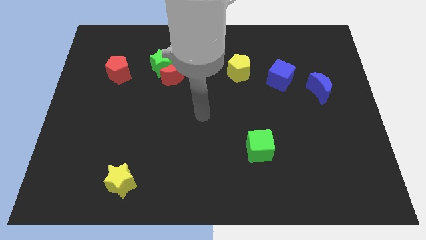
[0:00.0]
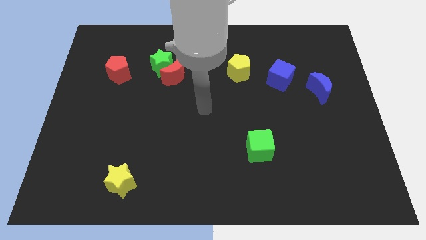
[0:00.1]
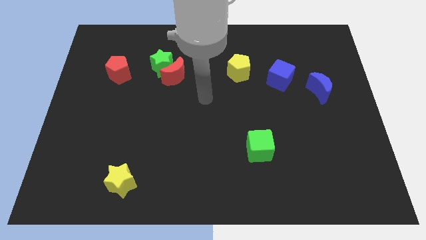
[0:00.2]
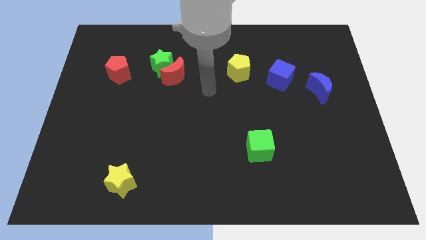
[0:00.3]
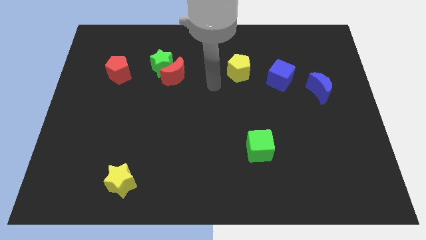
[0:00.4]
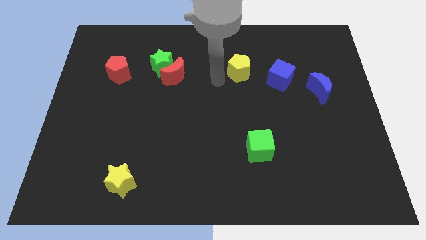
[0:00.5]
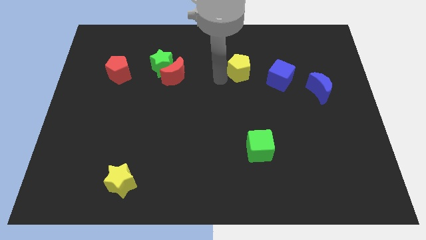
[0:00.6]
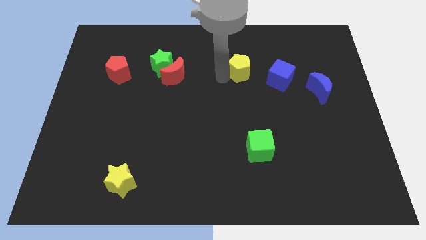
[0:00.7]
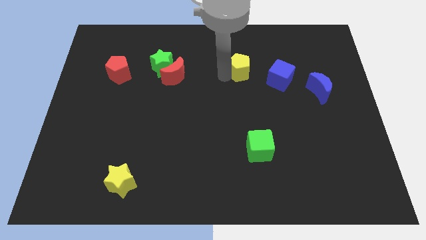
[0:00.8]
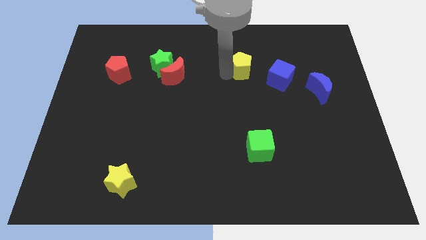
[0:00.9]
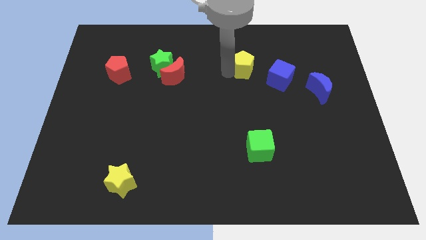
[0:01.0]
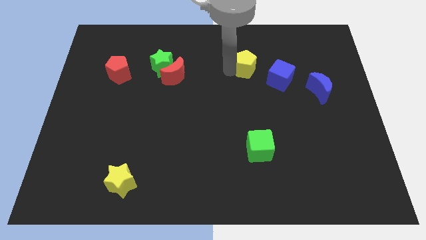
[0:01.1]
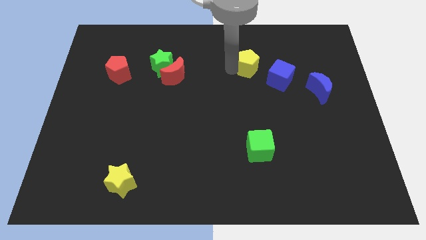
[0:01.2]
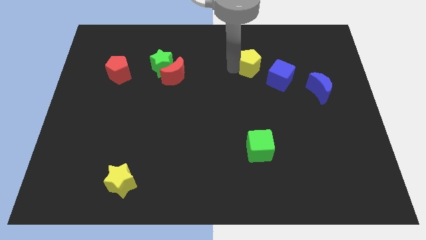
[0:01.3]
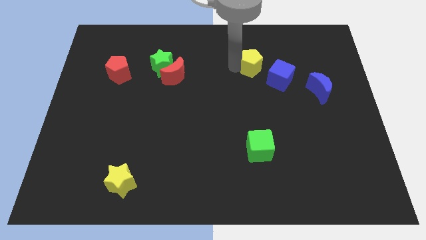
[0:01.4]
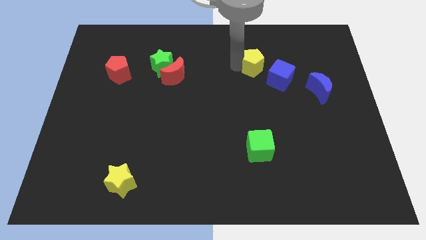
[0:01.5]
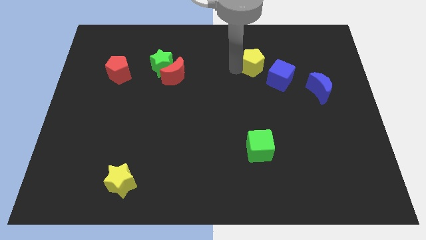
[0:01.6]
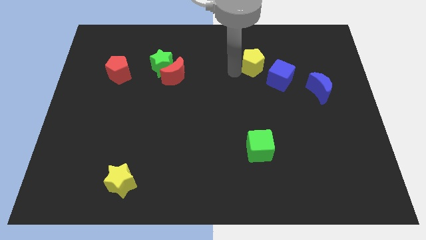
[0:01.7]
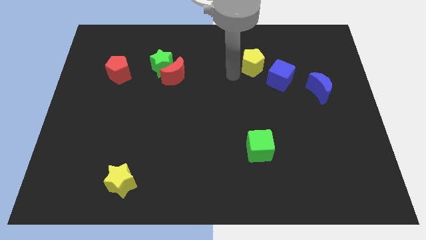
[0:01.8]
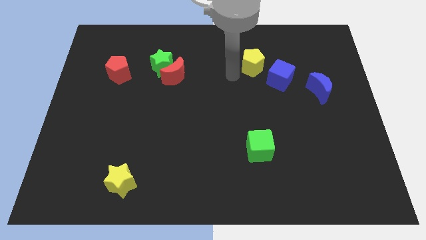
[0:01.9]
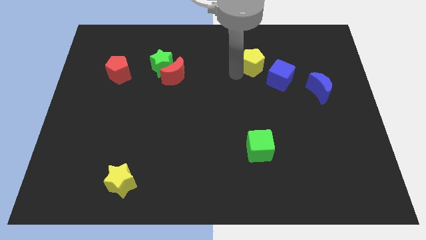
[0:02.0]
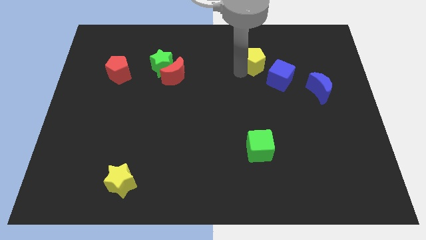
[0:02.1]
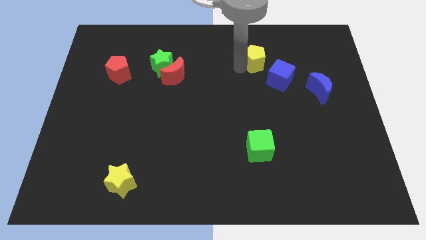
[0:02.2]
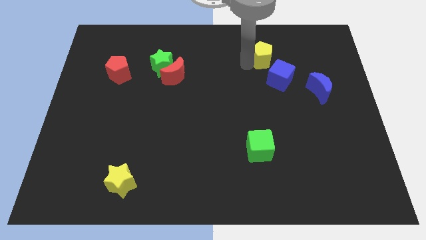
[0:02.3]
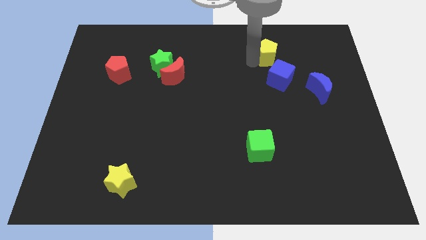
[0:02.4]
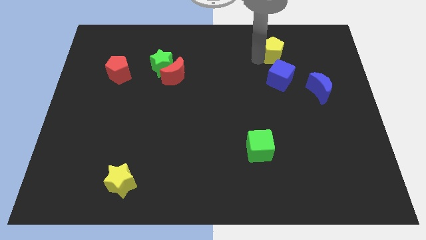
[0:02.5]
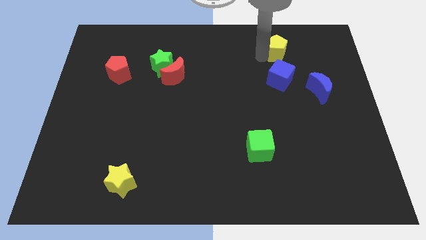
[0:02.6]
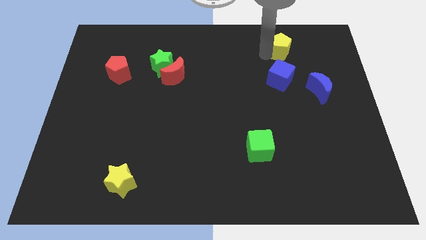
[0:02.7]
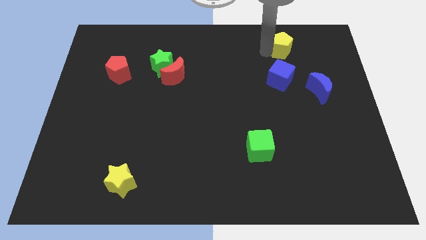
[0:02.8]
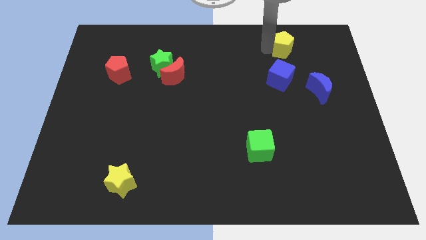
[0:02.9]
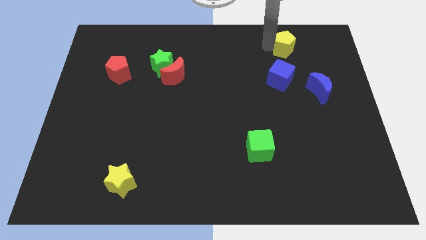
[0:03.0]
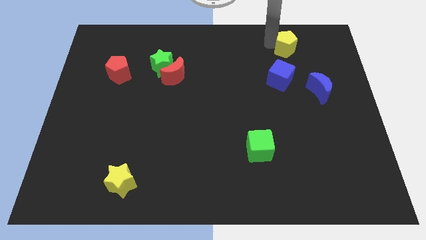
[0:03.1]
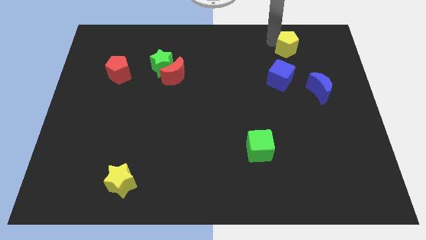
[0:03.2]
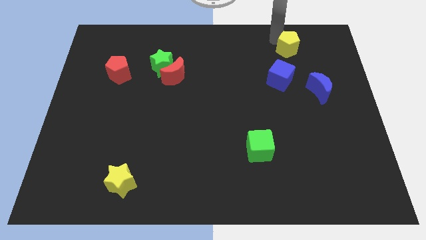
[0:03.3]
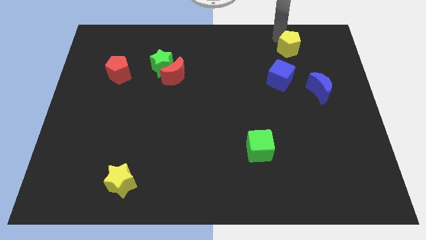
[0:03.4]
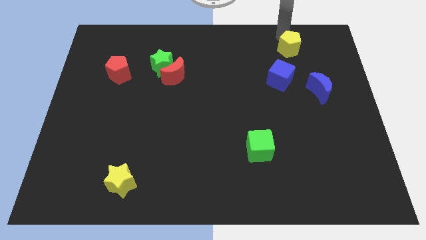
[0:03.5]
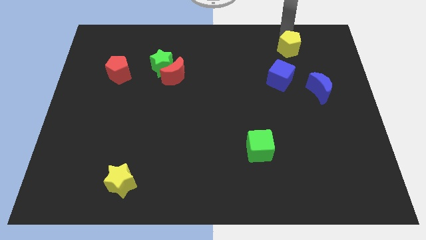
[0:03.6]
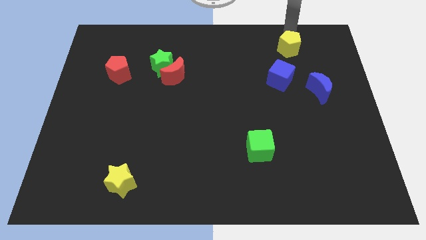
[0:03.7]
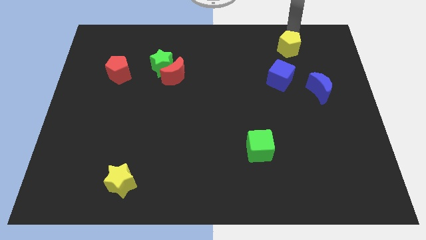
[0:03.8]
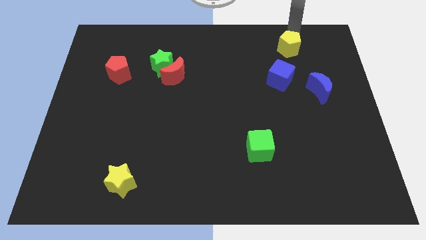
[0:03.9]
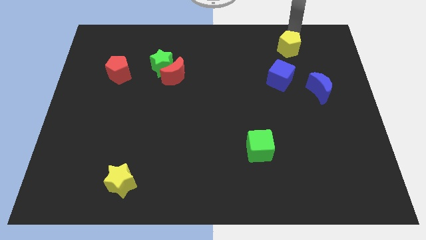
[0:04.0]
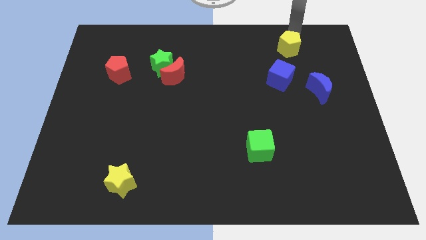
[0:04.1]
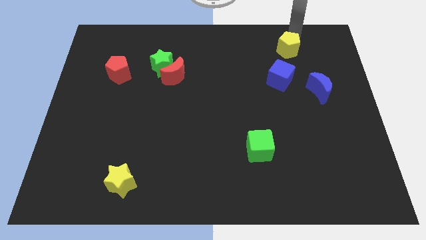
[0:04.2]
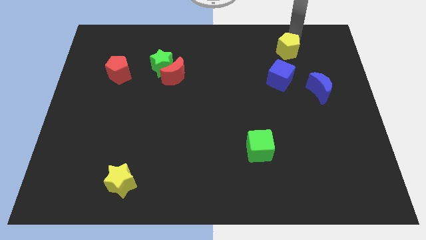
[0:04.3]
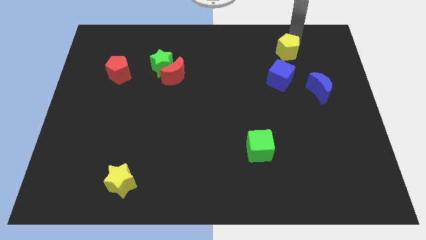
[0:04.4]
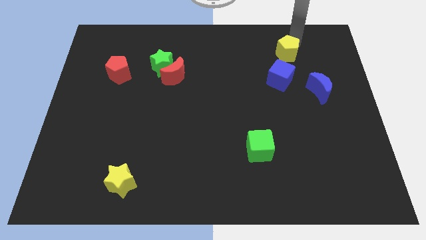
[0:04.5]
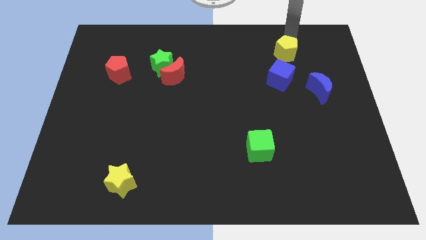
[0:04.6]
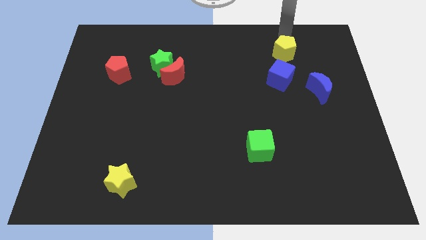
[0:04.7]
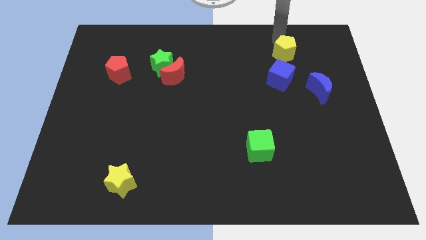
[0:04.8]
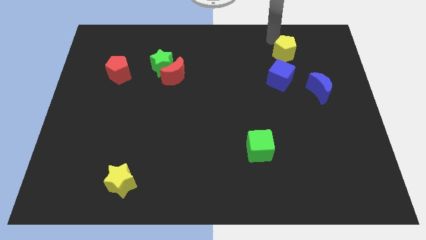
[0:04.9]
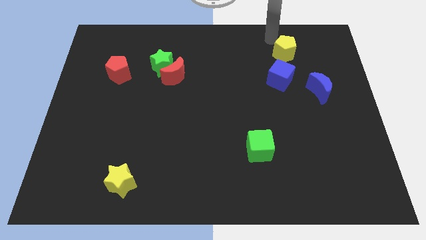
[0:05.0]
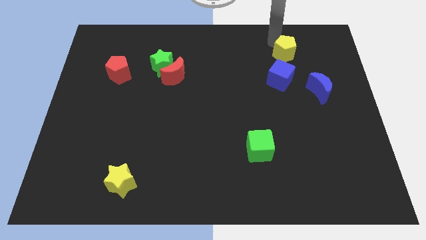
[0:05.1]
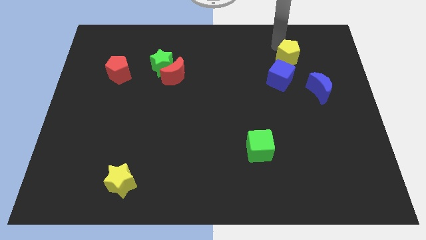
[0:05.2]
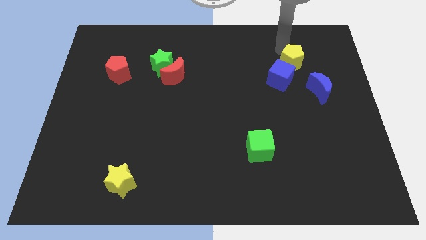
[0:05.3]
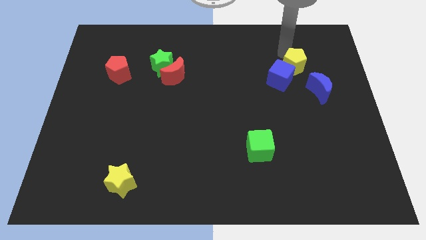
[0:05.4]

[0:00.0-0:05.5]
put the yellow pentagon just right of the blue cube

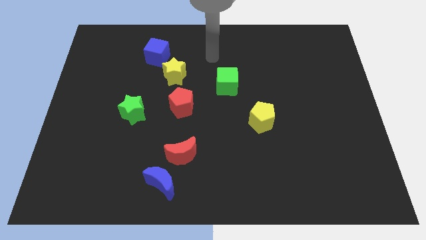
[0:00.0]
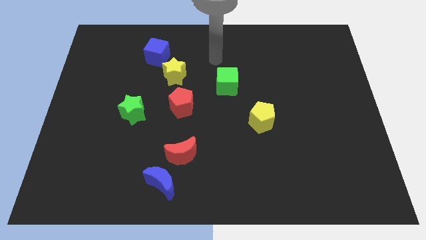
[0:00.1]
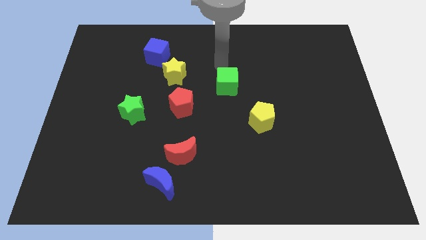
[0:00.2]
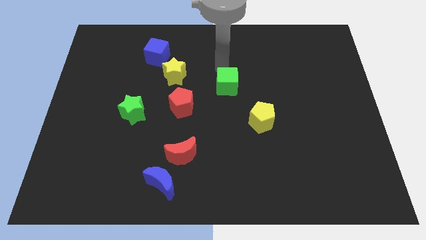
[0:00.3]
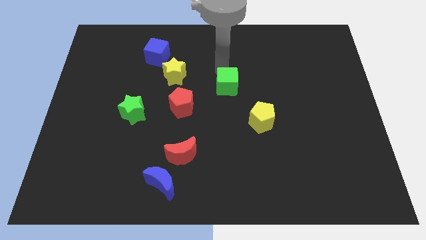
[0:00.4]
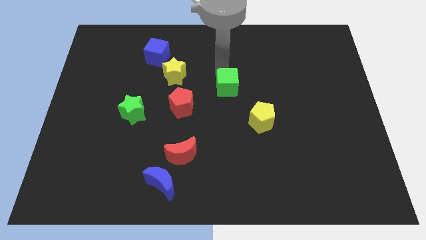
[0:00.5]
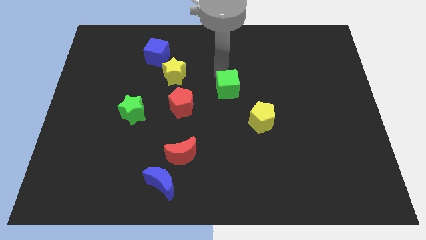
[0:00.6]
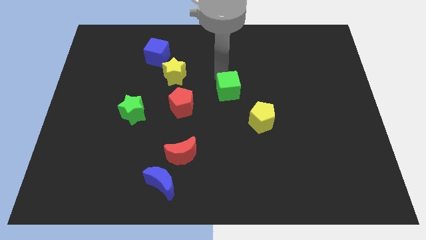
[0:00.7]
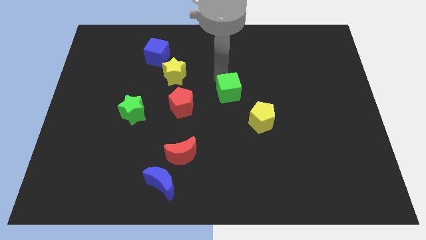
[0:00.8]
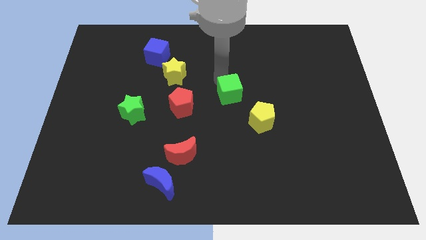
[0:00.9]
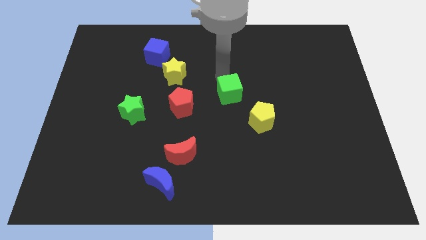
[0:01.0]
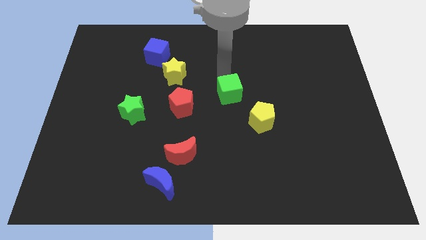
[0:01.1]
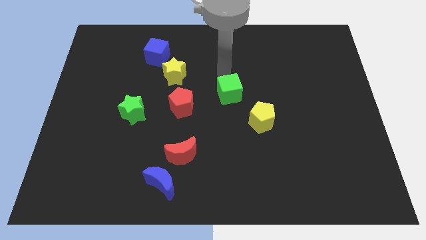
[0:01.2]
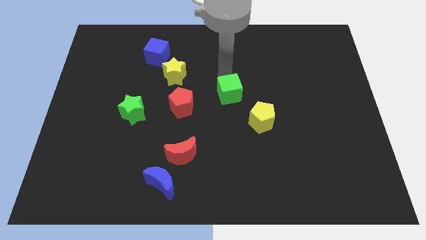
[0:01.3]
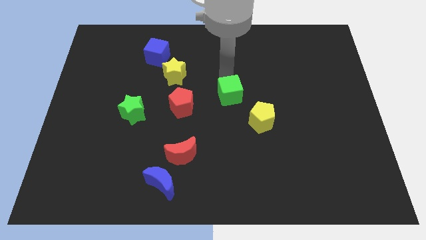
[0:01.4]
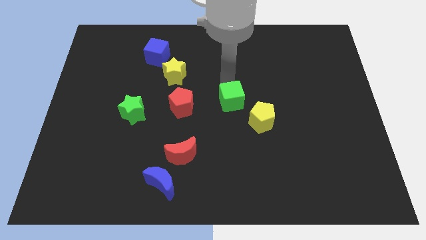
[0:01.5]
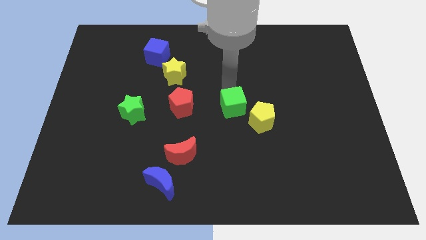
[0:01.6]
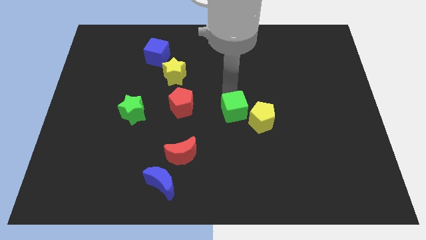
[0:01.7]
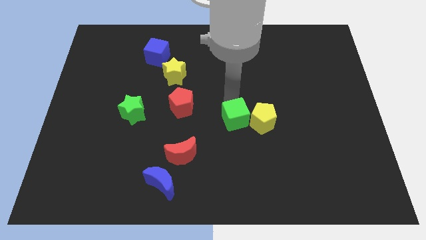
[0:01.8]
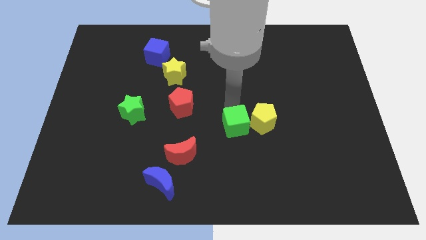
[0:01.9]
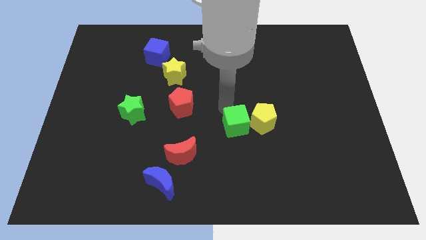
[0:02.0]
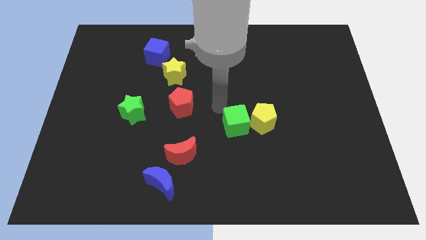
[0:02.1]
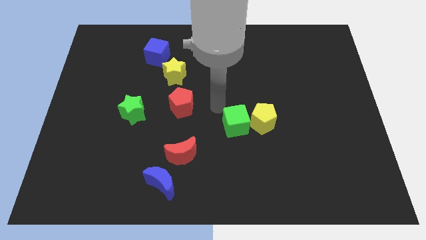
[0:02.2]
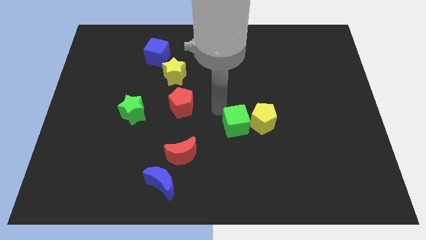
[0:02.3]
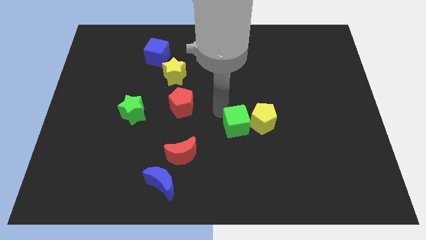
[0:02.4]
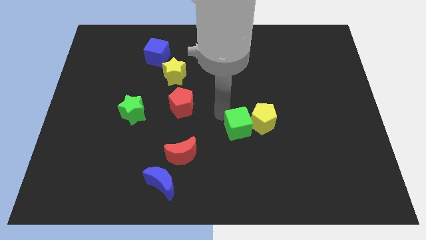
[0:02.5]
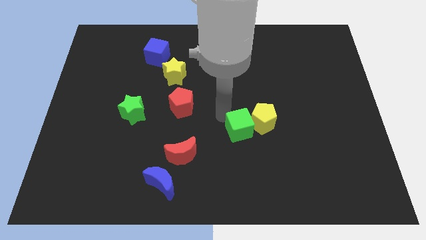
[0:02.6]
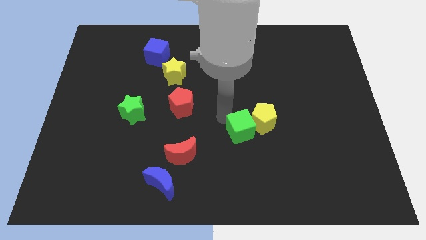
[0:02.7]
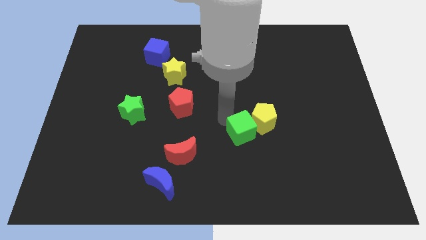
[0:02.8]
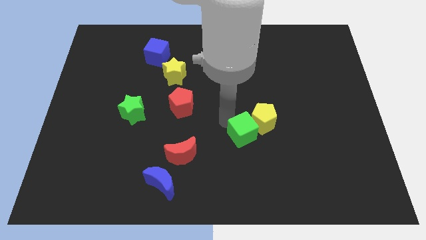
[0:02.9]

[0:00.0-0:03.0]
move the green cube to the bottom side of the yellow pentagon
